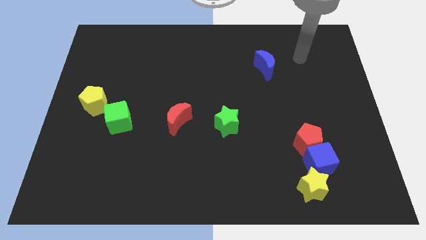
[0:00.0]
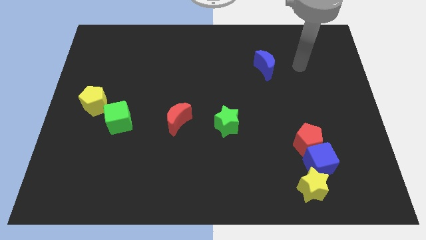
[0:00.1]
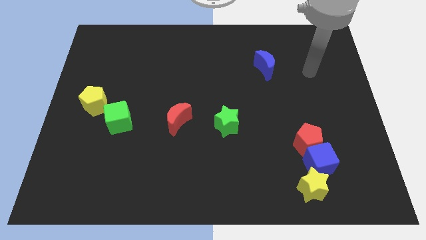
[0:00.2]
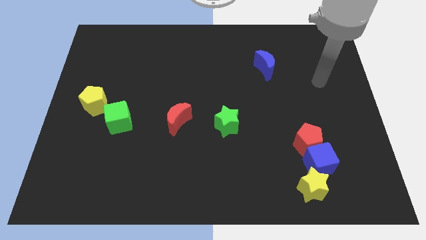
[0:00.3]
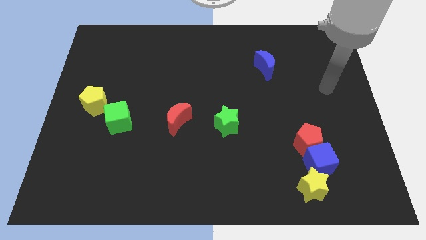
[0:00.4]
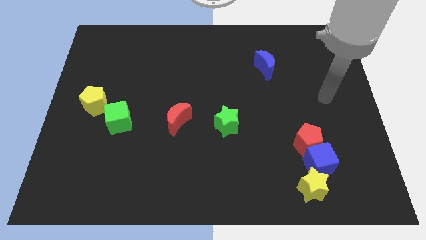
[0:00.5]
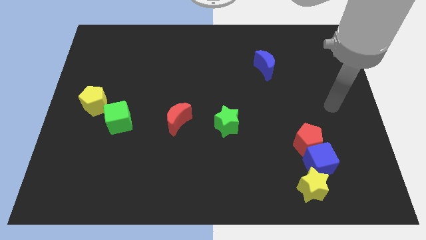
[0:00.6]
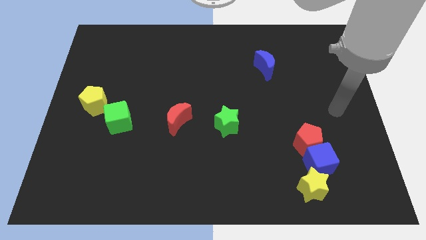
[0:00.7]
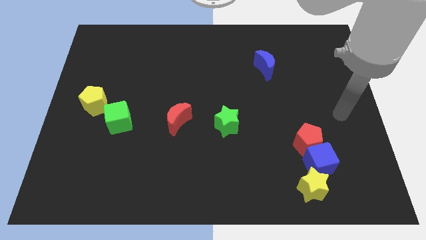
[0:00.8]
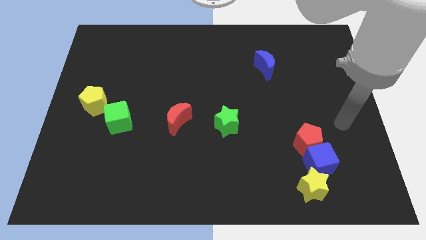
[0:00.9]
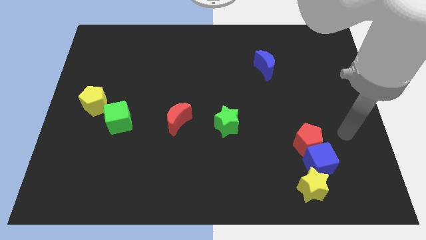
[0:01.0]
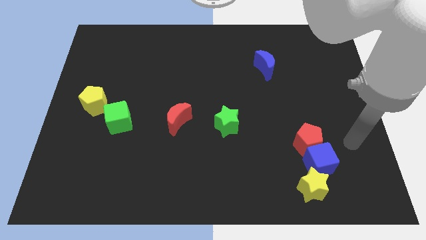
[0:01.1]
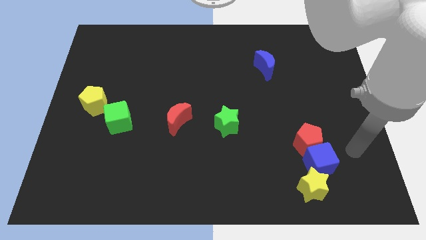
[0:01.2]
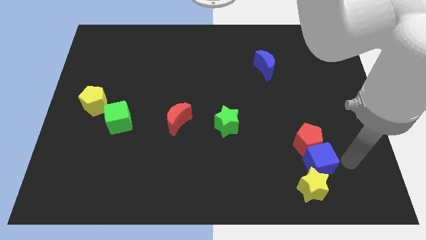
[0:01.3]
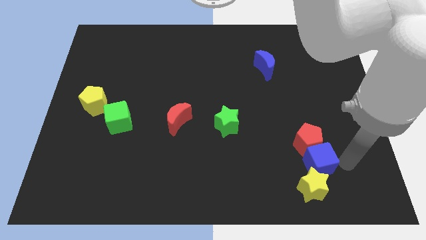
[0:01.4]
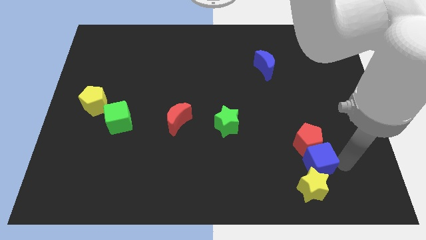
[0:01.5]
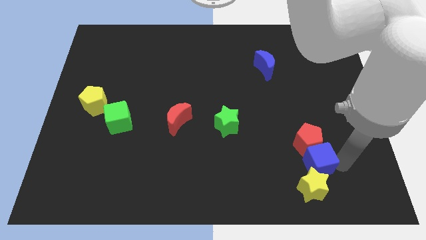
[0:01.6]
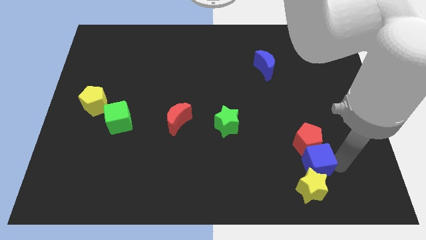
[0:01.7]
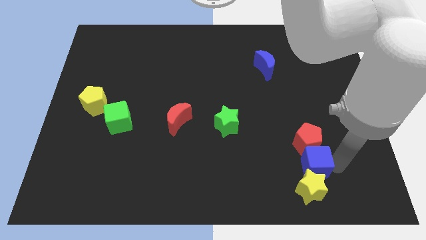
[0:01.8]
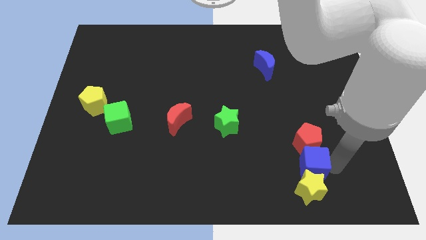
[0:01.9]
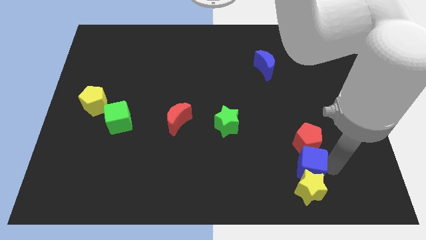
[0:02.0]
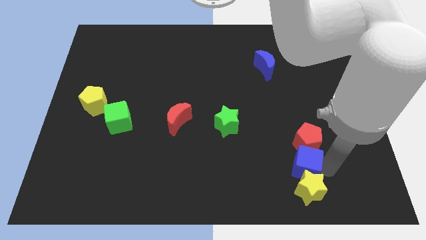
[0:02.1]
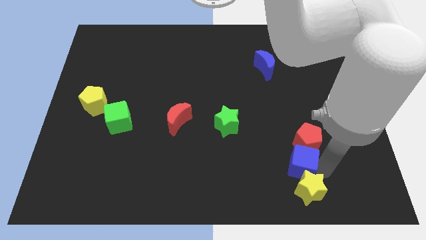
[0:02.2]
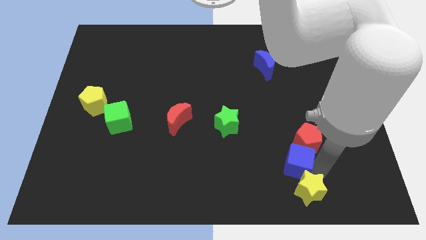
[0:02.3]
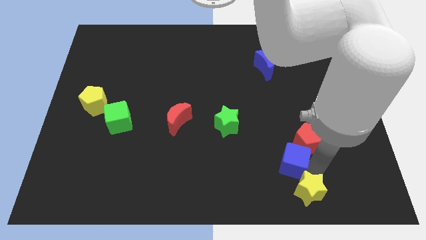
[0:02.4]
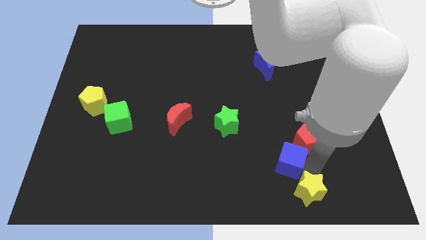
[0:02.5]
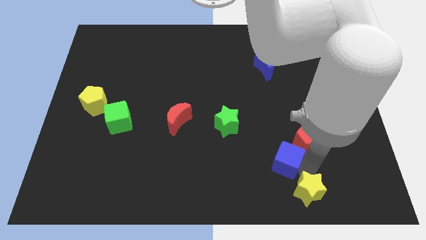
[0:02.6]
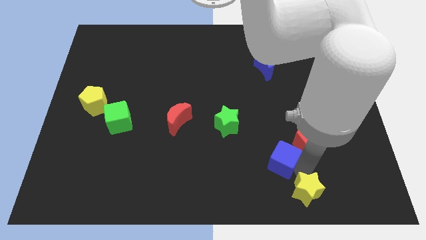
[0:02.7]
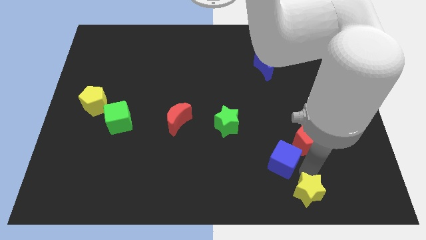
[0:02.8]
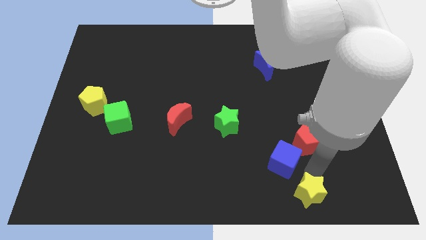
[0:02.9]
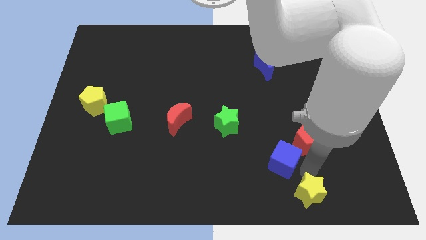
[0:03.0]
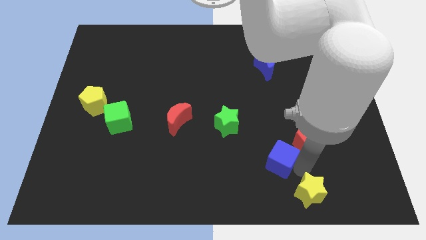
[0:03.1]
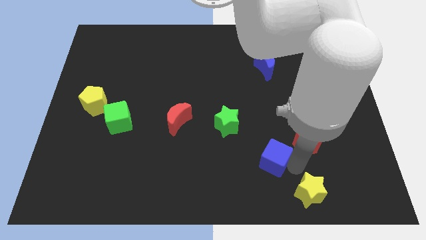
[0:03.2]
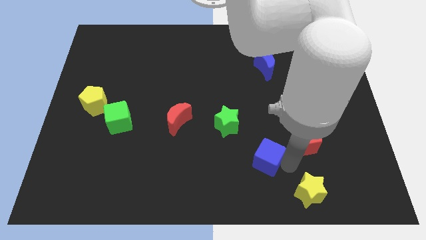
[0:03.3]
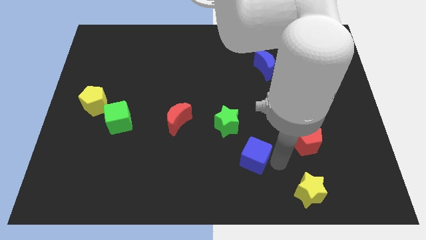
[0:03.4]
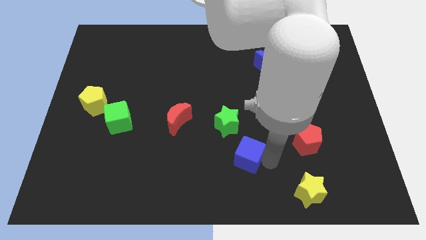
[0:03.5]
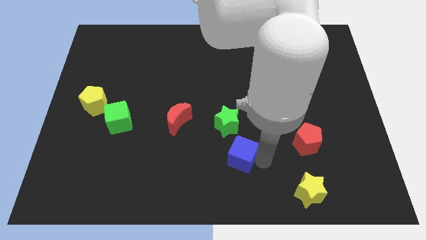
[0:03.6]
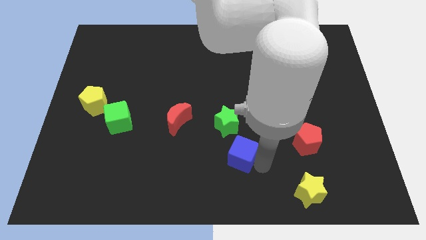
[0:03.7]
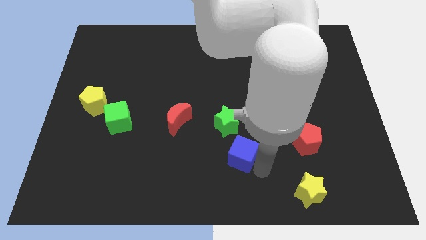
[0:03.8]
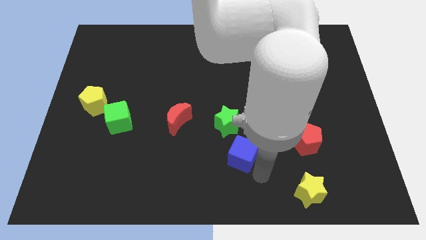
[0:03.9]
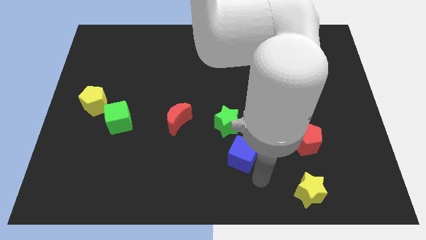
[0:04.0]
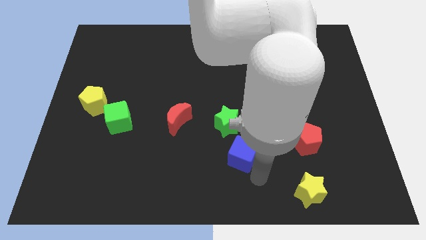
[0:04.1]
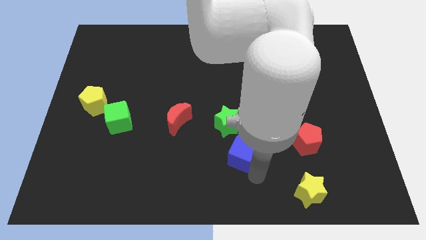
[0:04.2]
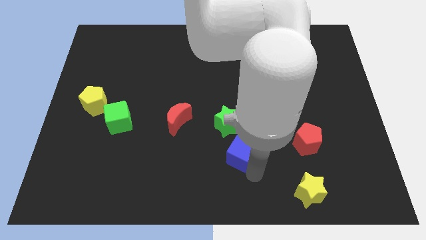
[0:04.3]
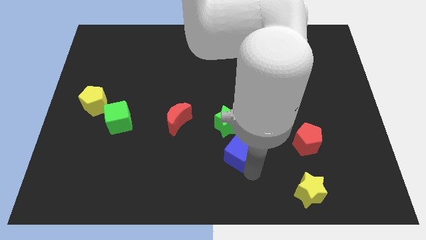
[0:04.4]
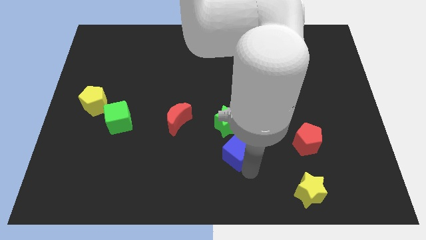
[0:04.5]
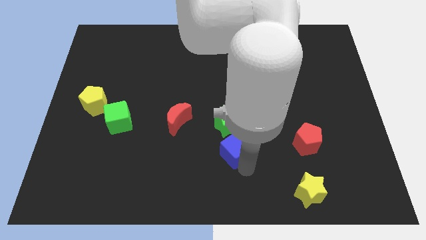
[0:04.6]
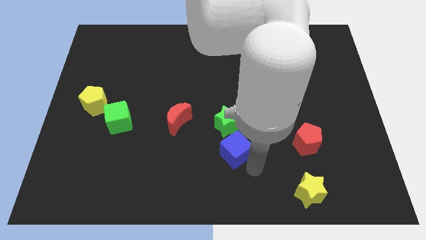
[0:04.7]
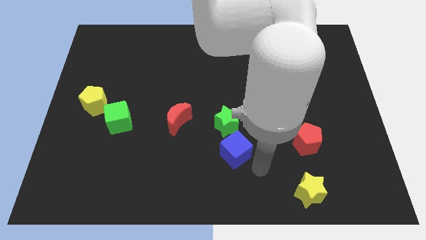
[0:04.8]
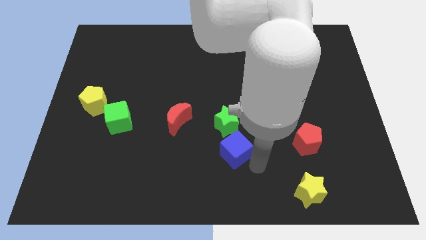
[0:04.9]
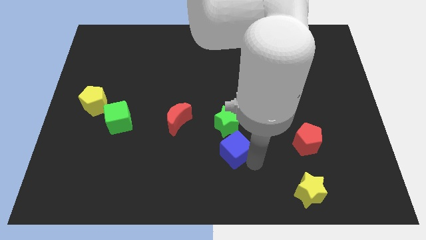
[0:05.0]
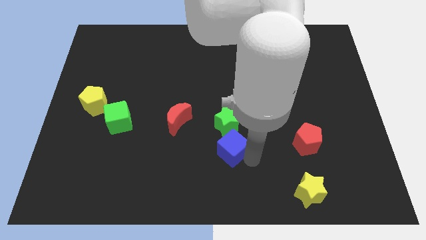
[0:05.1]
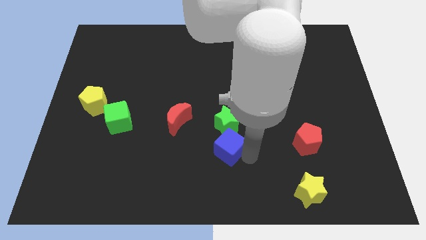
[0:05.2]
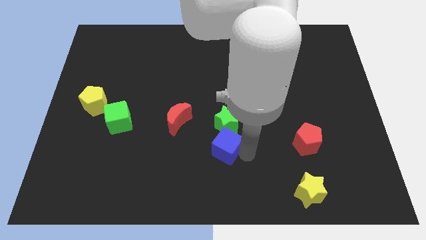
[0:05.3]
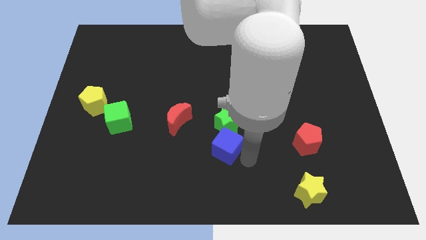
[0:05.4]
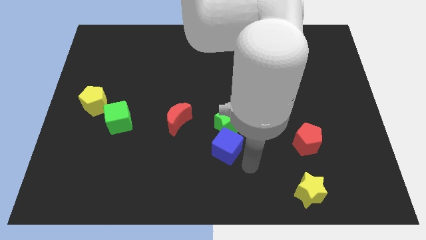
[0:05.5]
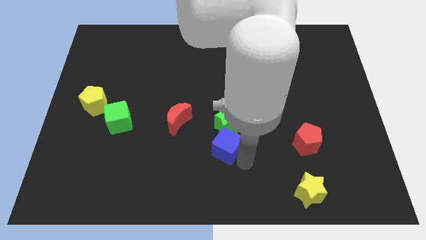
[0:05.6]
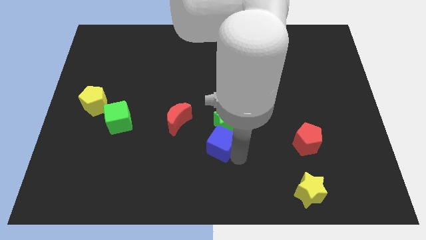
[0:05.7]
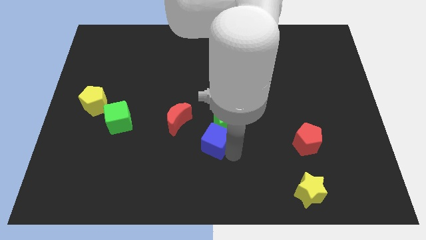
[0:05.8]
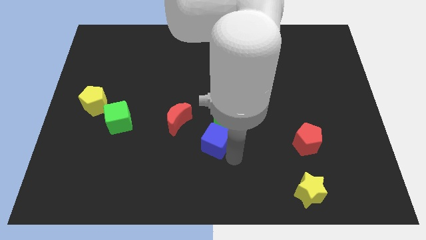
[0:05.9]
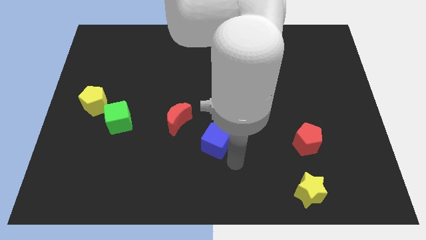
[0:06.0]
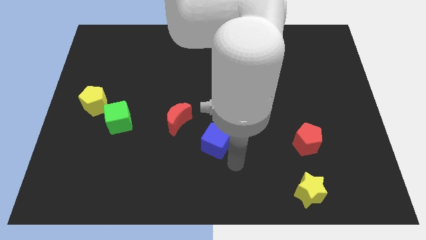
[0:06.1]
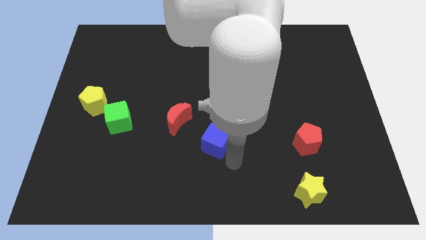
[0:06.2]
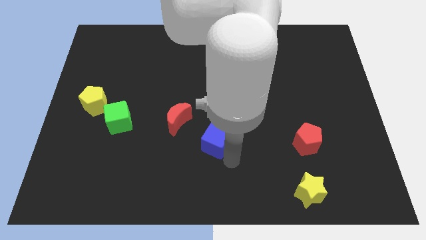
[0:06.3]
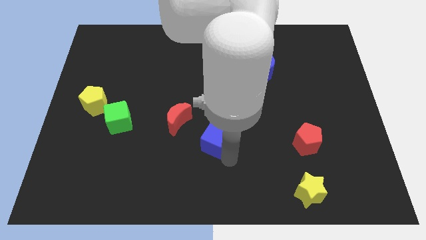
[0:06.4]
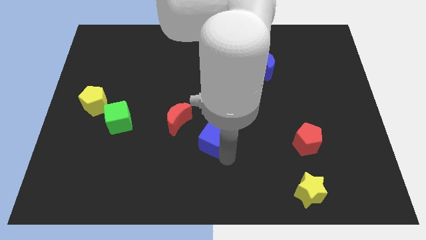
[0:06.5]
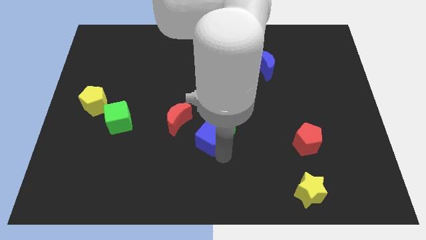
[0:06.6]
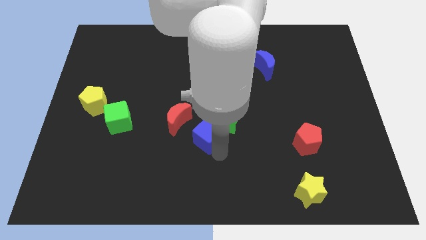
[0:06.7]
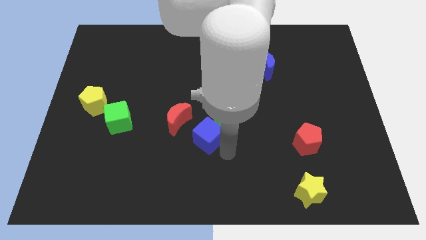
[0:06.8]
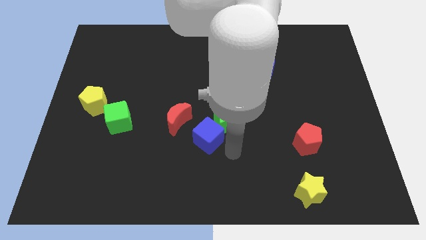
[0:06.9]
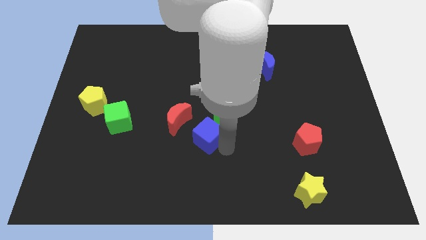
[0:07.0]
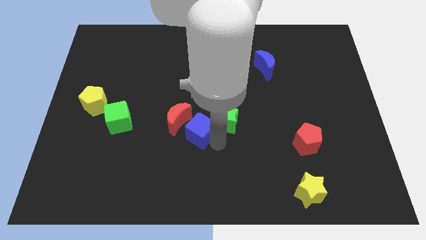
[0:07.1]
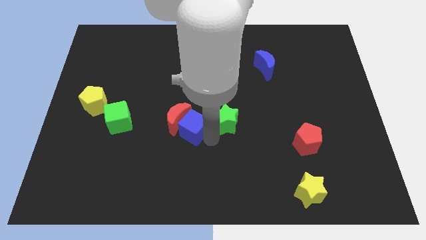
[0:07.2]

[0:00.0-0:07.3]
slide the blue cube next to the red moon

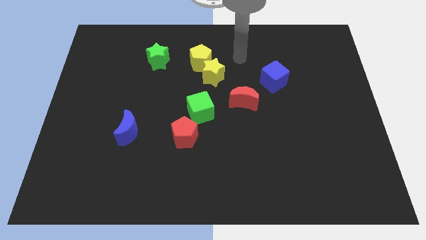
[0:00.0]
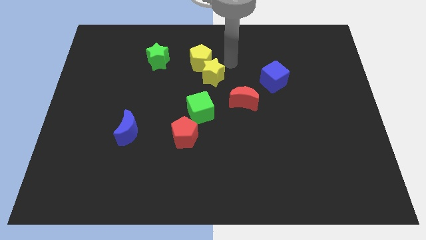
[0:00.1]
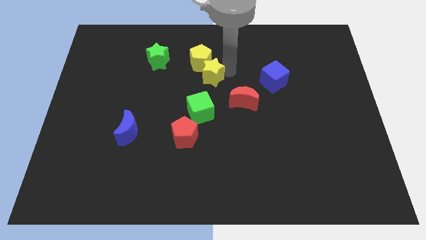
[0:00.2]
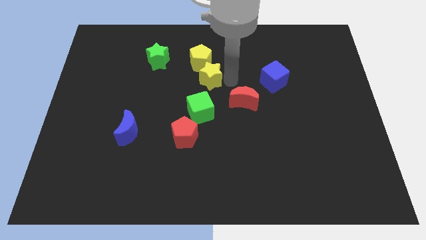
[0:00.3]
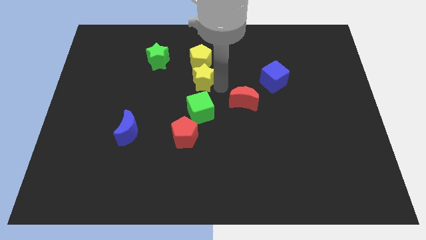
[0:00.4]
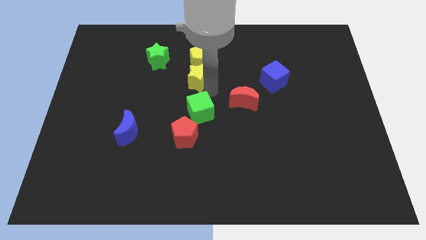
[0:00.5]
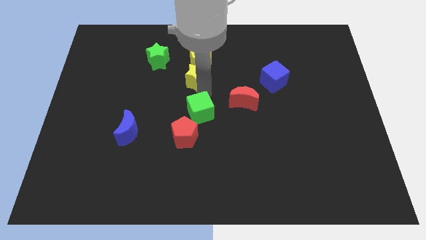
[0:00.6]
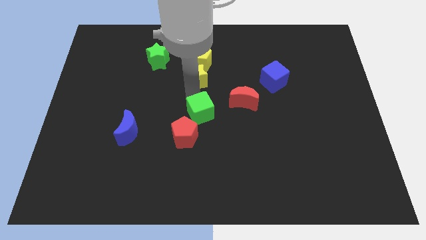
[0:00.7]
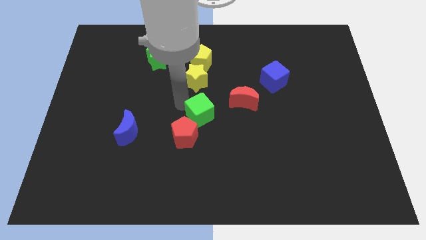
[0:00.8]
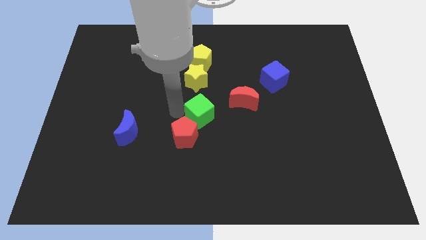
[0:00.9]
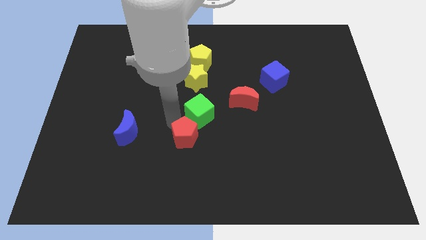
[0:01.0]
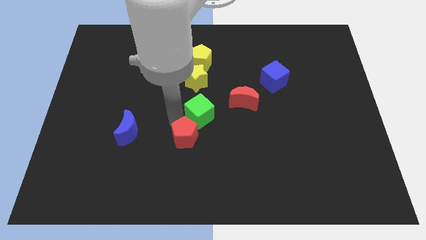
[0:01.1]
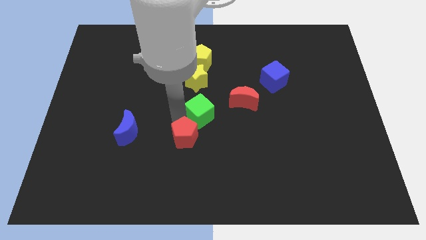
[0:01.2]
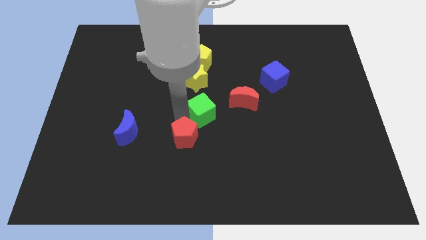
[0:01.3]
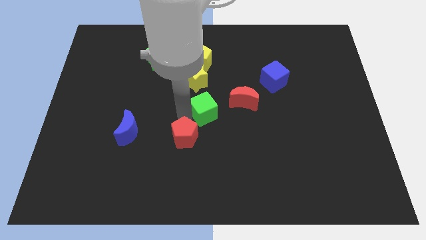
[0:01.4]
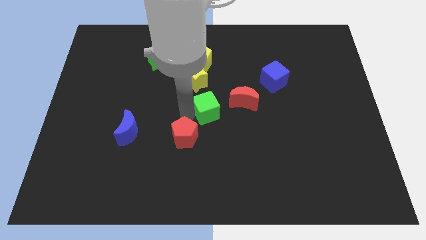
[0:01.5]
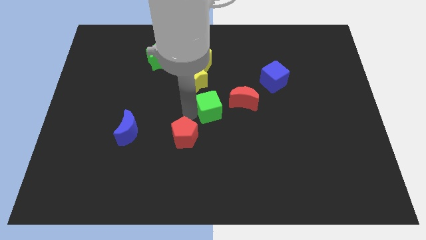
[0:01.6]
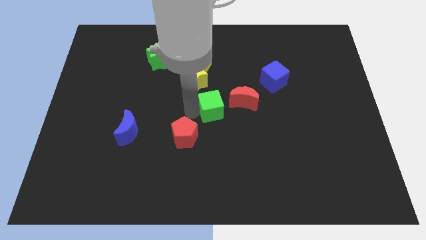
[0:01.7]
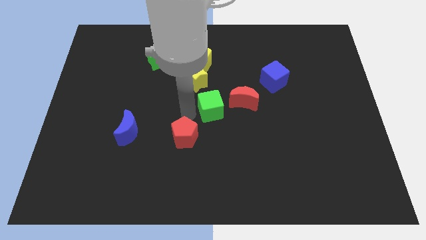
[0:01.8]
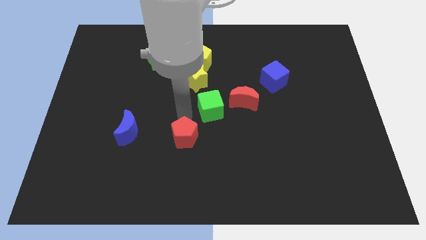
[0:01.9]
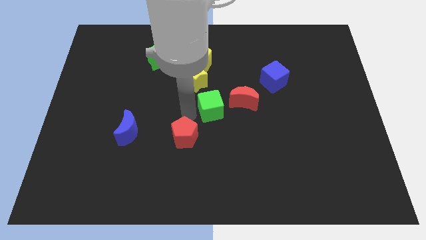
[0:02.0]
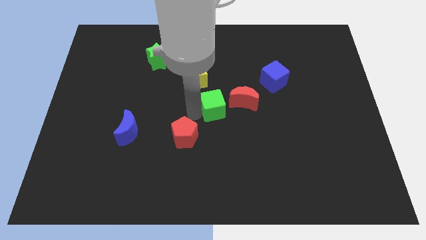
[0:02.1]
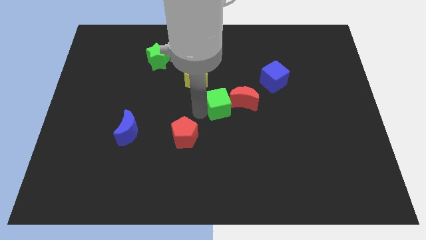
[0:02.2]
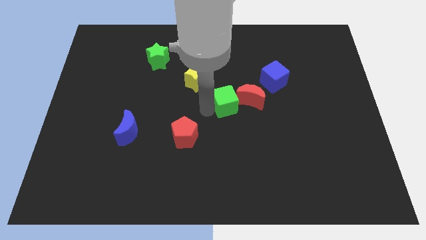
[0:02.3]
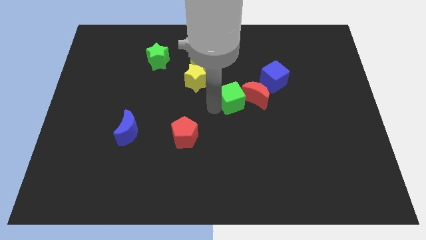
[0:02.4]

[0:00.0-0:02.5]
put the green cube towards the red moon
